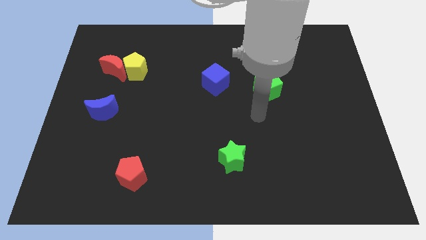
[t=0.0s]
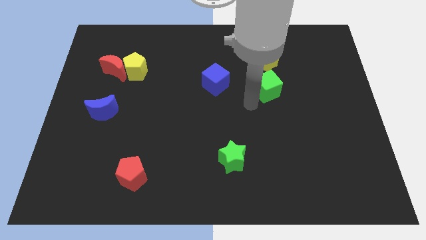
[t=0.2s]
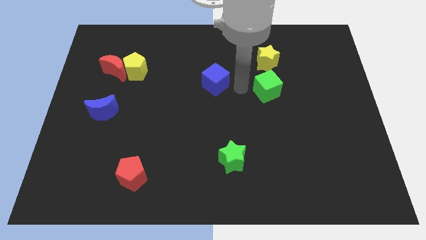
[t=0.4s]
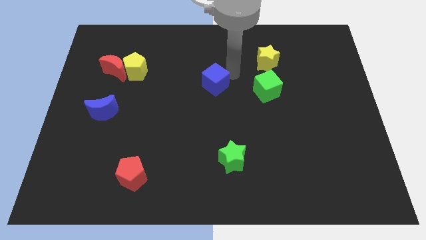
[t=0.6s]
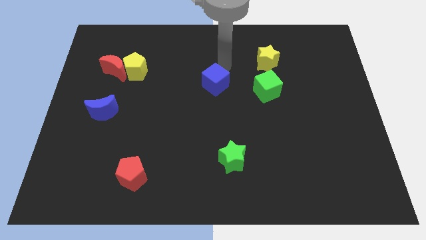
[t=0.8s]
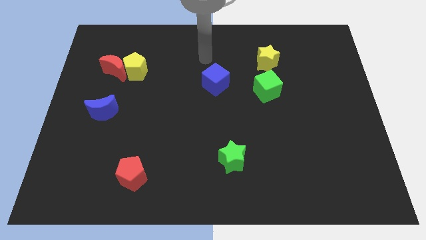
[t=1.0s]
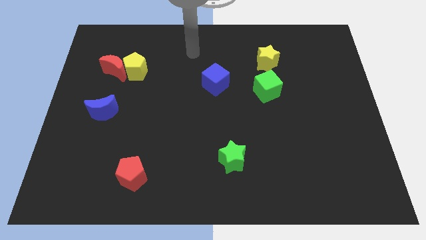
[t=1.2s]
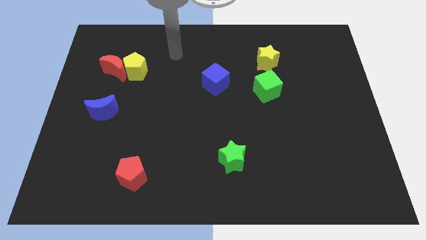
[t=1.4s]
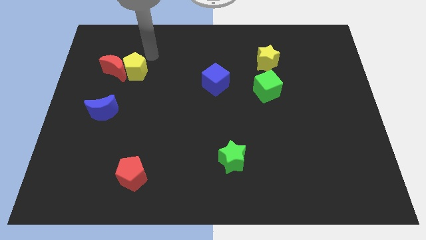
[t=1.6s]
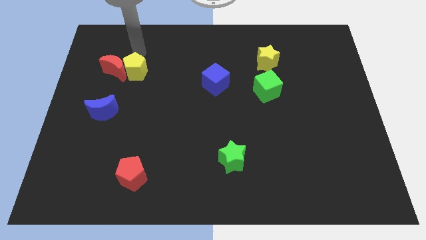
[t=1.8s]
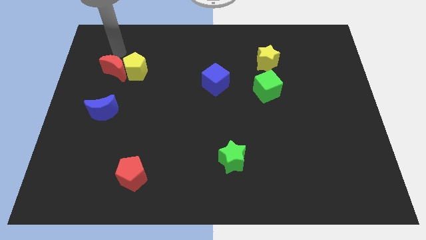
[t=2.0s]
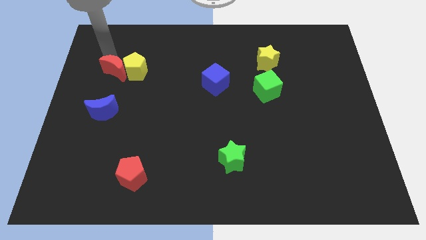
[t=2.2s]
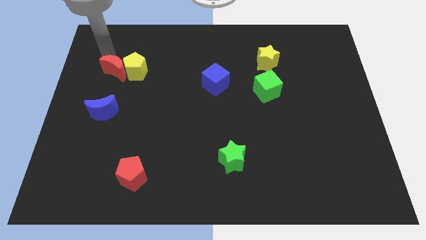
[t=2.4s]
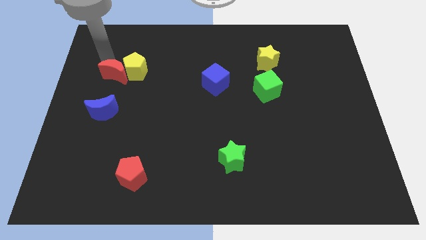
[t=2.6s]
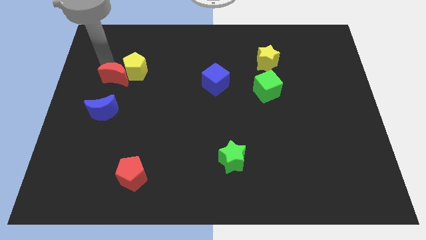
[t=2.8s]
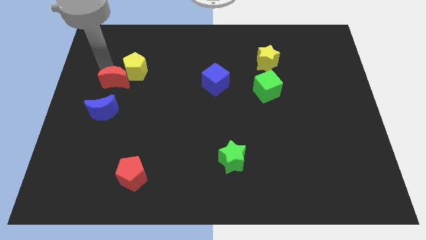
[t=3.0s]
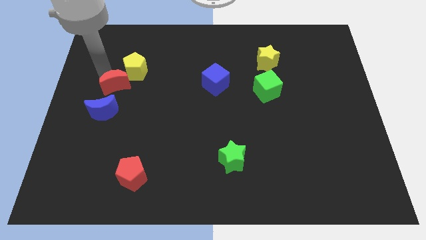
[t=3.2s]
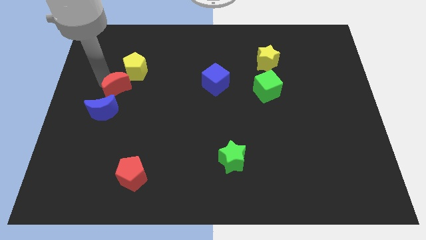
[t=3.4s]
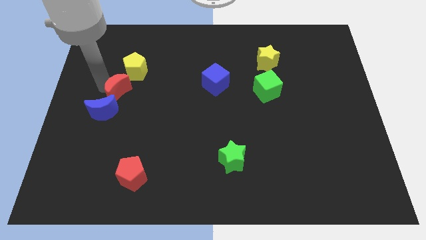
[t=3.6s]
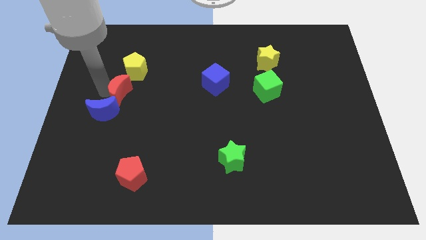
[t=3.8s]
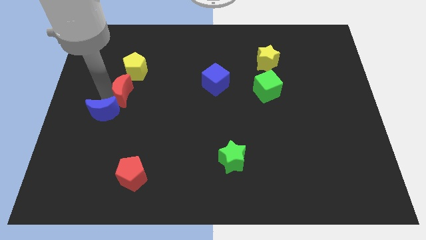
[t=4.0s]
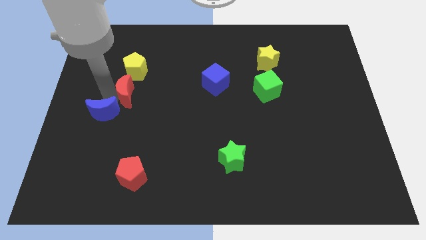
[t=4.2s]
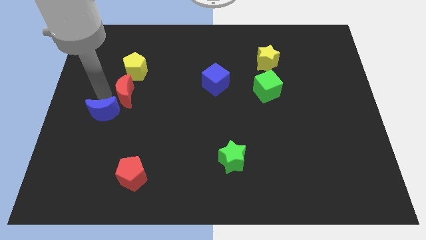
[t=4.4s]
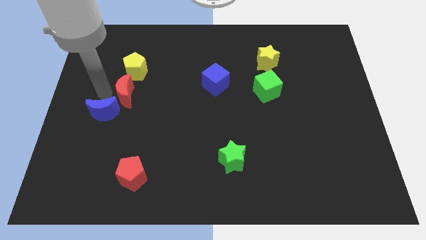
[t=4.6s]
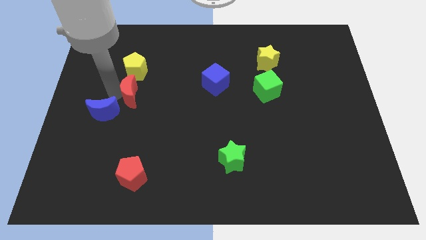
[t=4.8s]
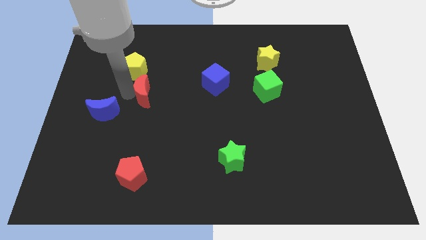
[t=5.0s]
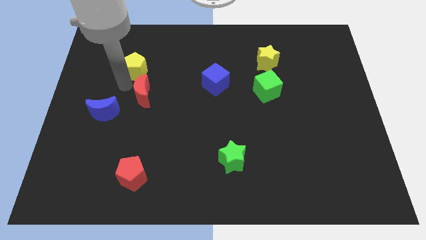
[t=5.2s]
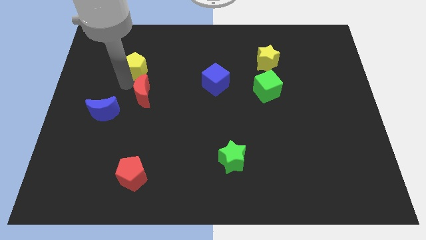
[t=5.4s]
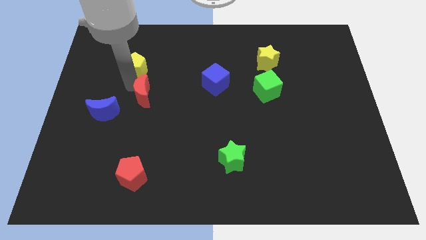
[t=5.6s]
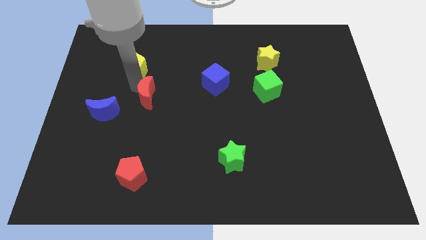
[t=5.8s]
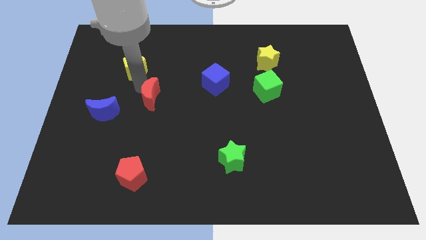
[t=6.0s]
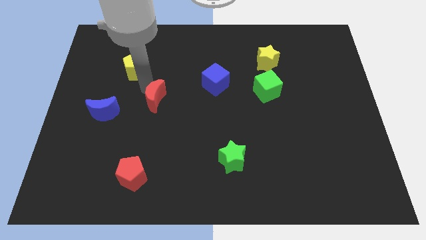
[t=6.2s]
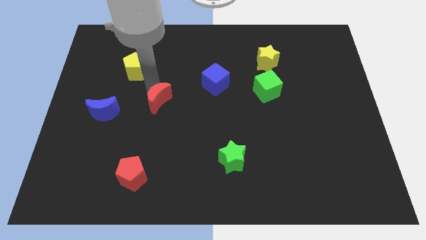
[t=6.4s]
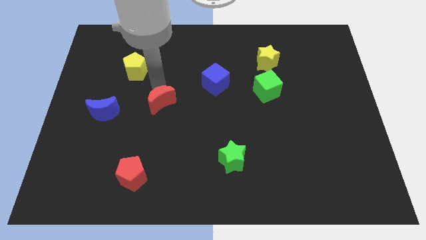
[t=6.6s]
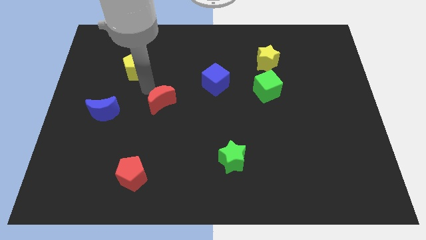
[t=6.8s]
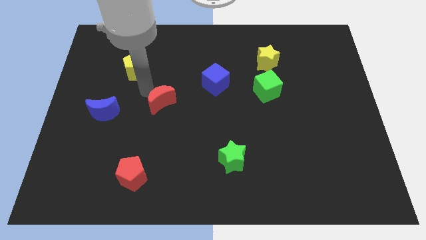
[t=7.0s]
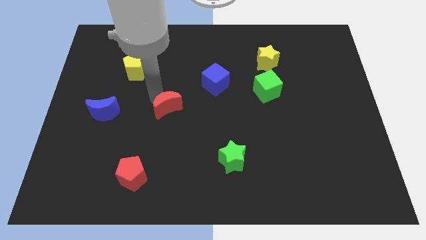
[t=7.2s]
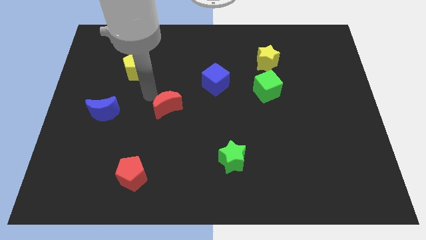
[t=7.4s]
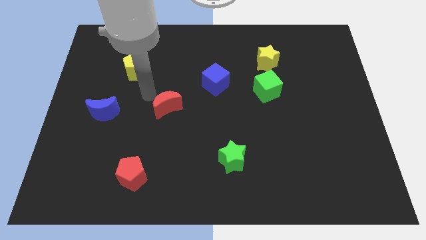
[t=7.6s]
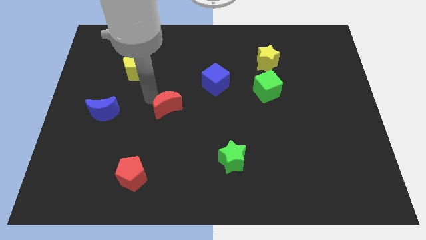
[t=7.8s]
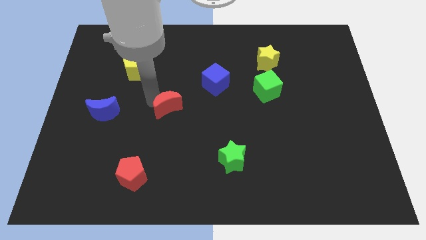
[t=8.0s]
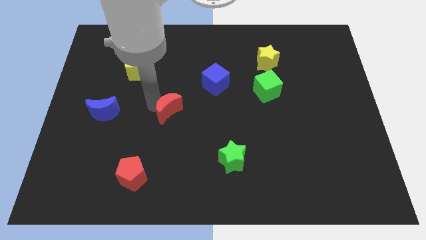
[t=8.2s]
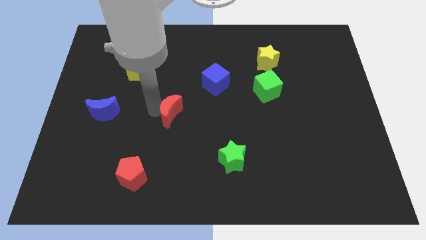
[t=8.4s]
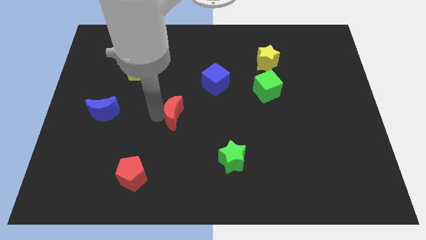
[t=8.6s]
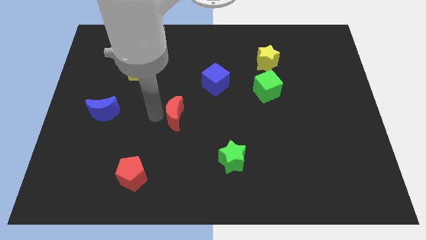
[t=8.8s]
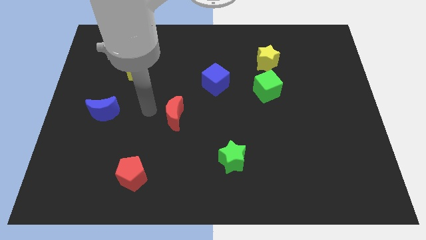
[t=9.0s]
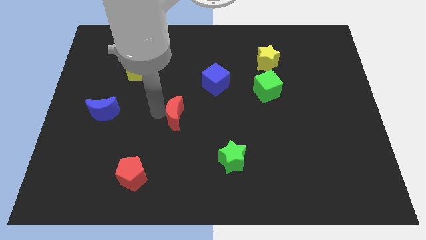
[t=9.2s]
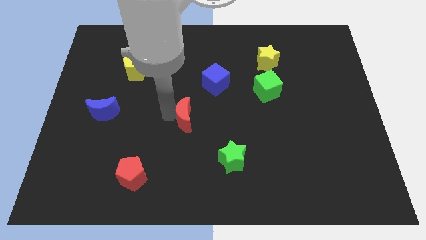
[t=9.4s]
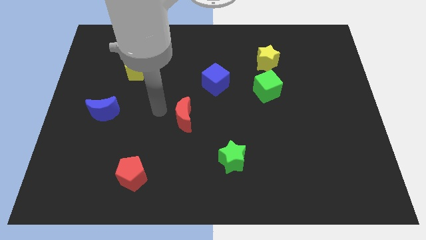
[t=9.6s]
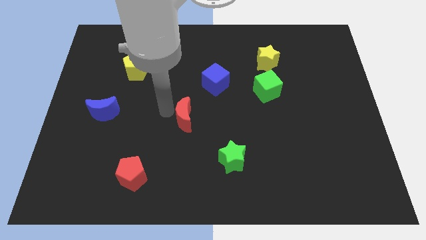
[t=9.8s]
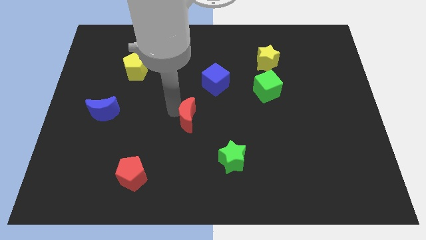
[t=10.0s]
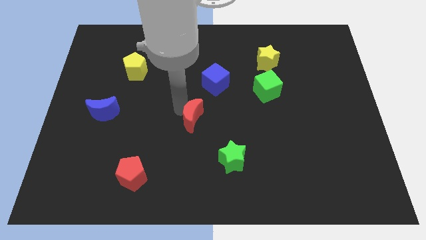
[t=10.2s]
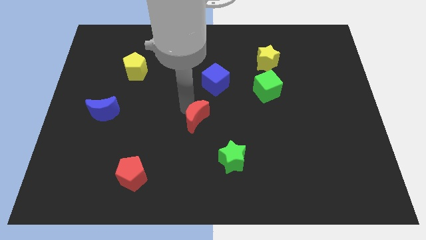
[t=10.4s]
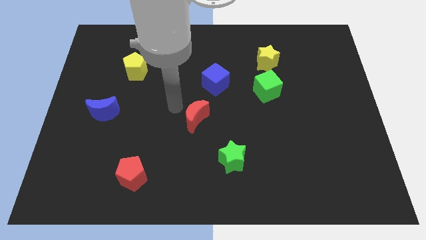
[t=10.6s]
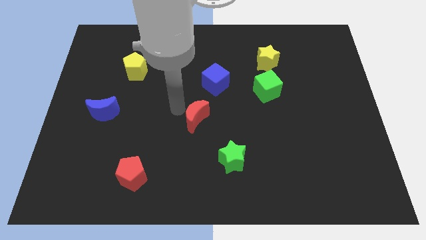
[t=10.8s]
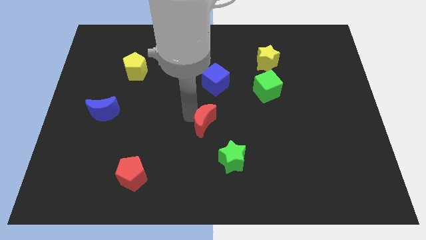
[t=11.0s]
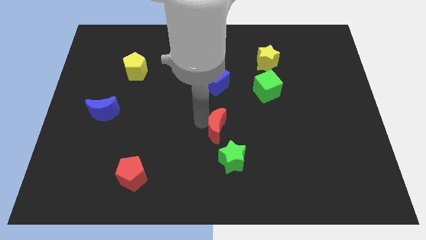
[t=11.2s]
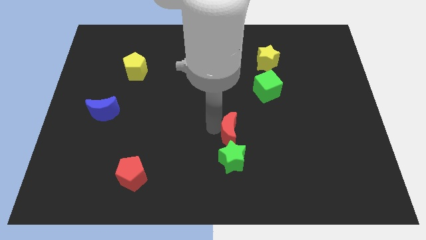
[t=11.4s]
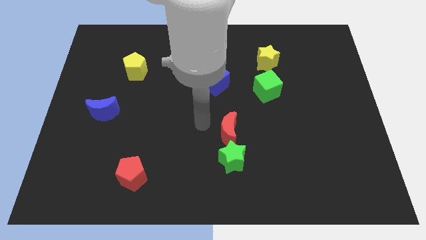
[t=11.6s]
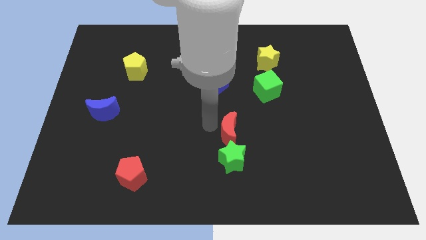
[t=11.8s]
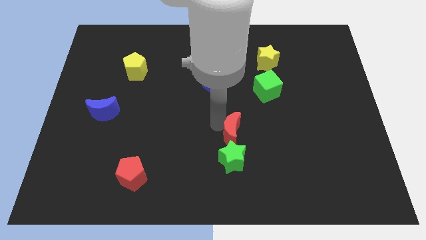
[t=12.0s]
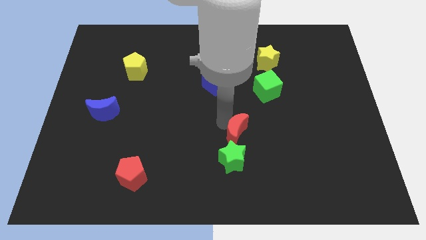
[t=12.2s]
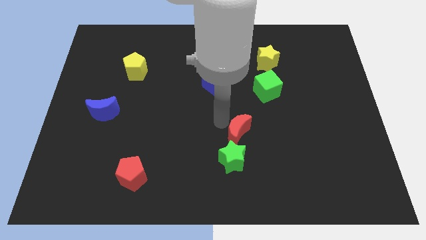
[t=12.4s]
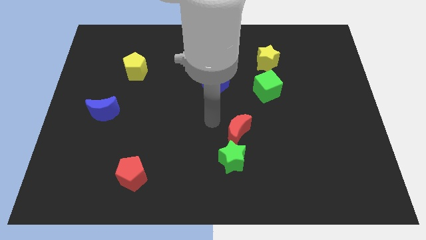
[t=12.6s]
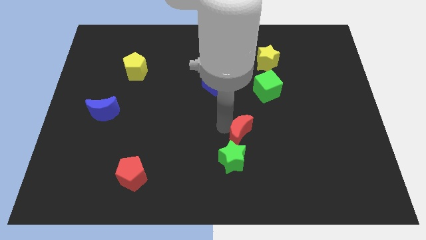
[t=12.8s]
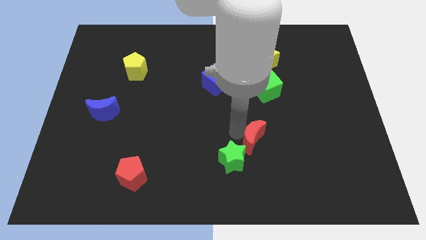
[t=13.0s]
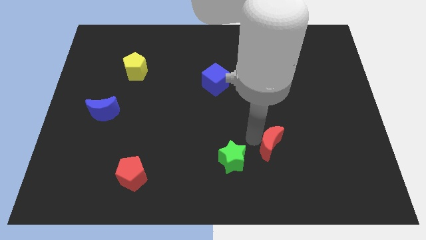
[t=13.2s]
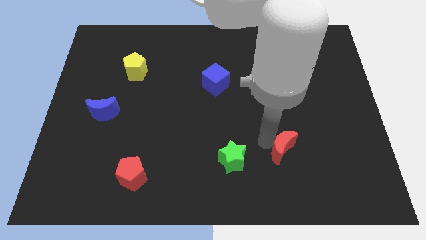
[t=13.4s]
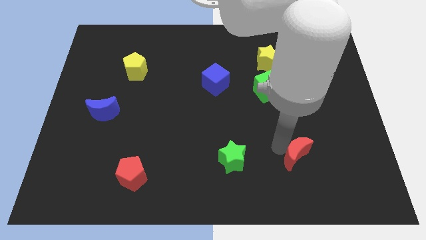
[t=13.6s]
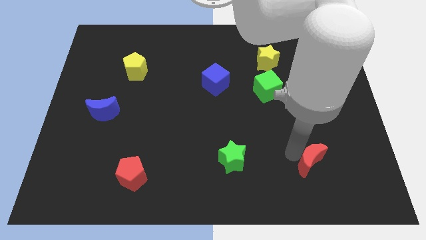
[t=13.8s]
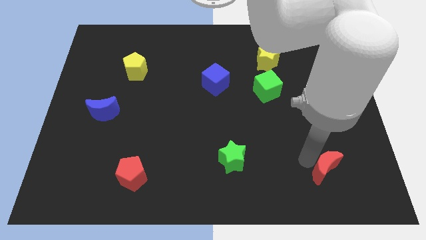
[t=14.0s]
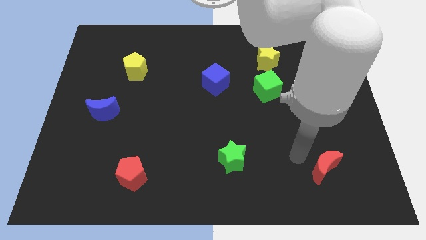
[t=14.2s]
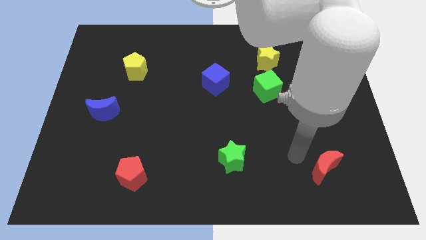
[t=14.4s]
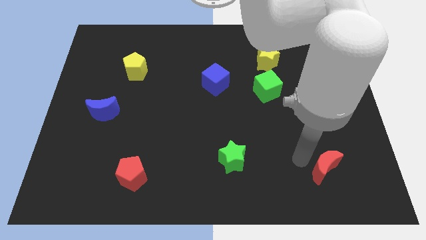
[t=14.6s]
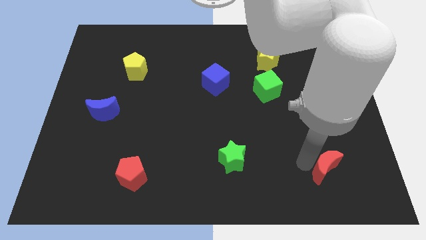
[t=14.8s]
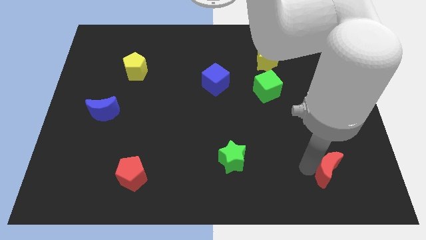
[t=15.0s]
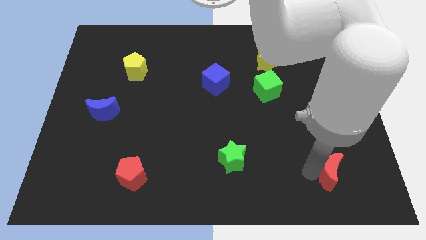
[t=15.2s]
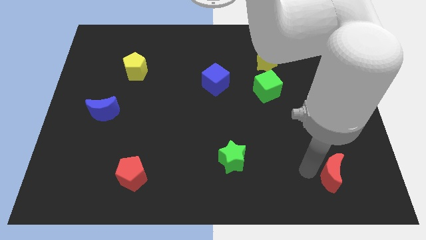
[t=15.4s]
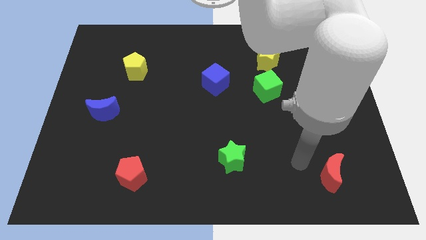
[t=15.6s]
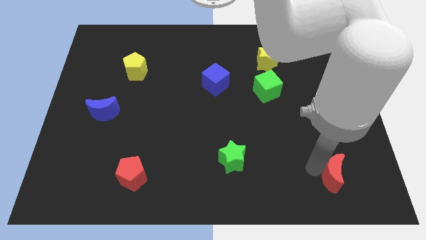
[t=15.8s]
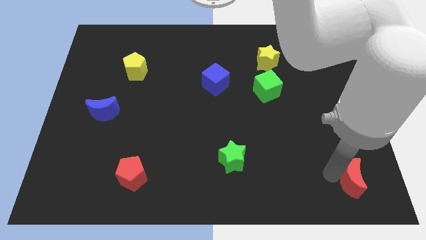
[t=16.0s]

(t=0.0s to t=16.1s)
push the red moon to the lower right corner
